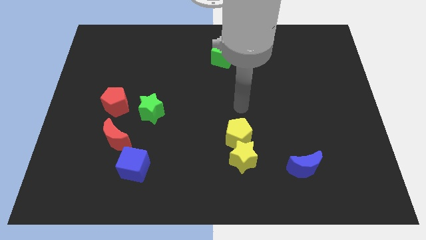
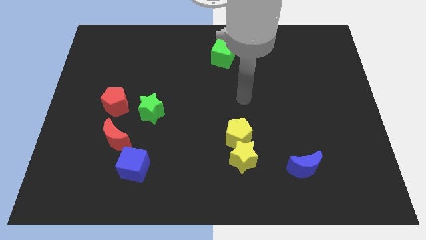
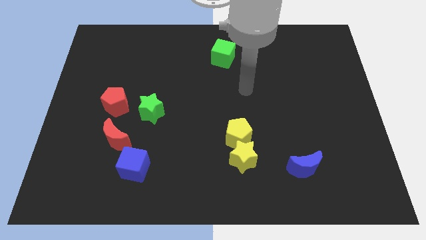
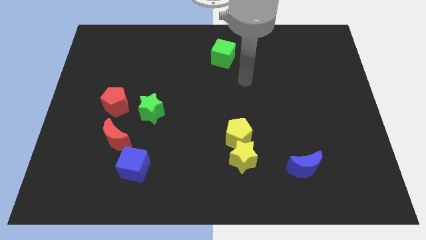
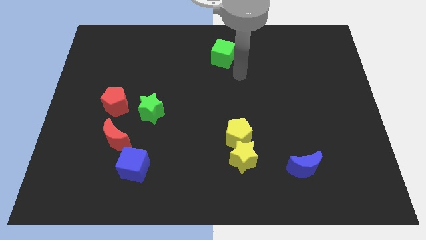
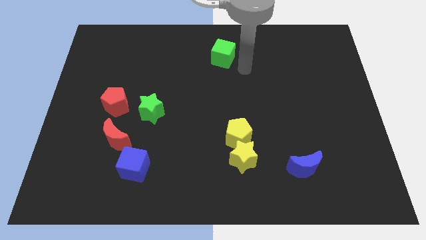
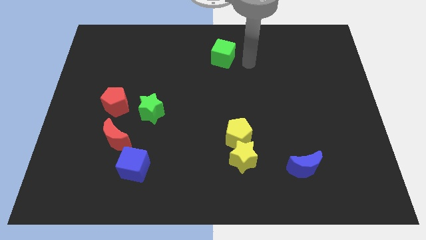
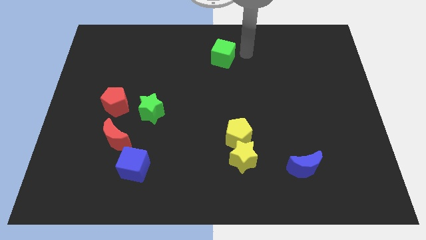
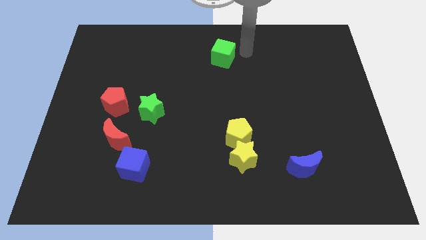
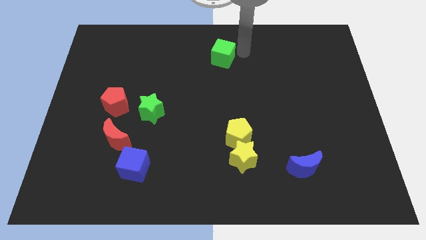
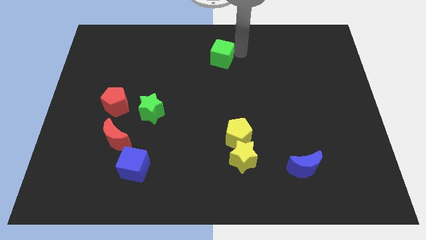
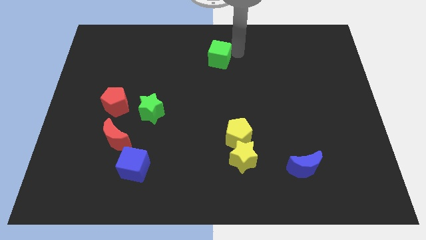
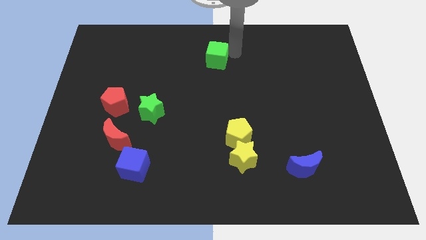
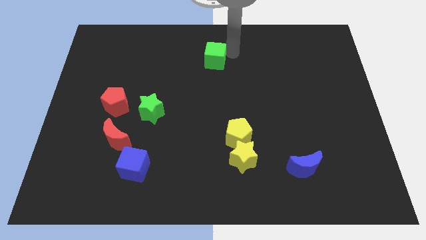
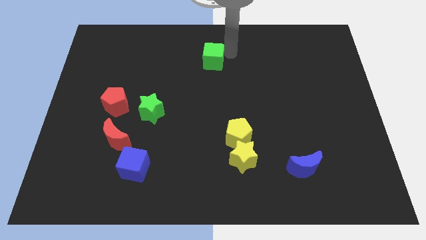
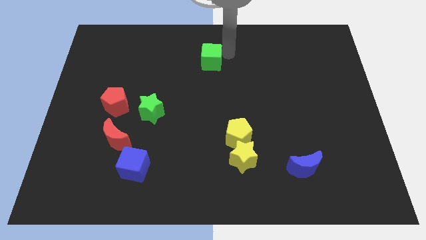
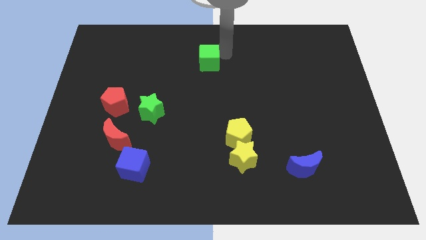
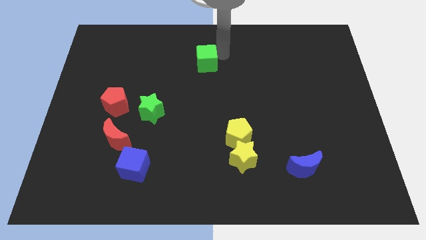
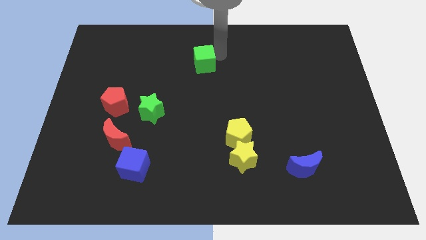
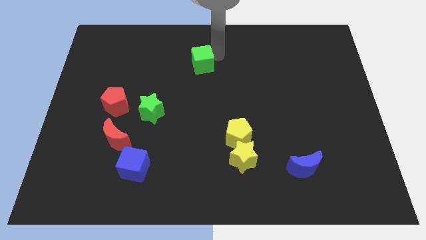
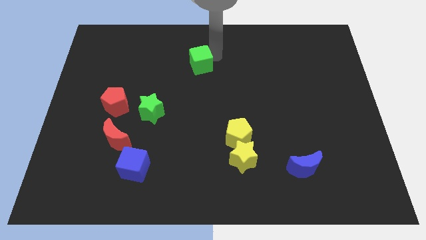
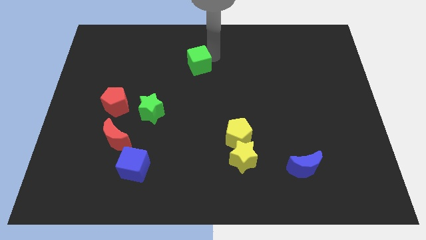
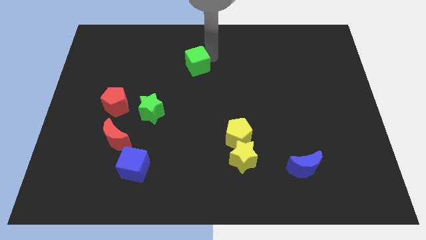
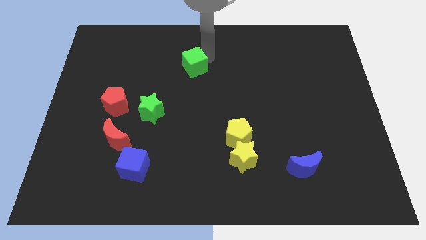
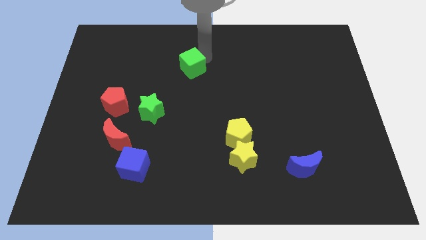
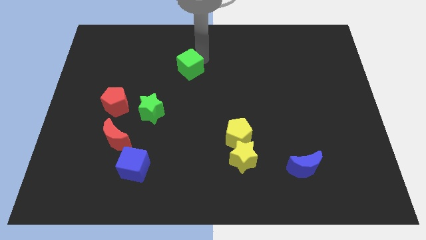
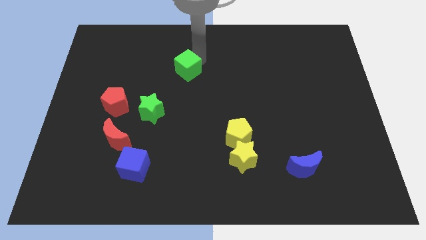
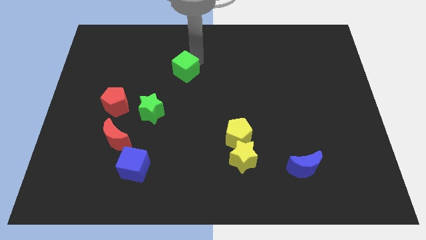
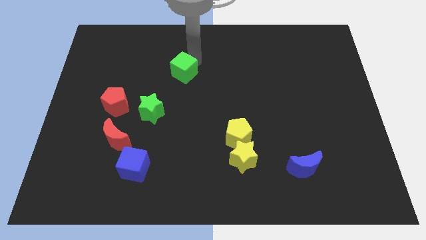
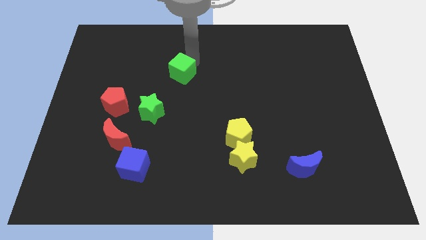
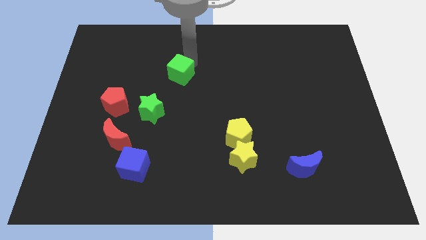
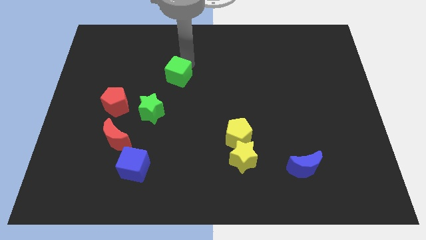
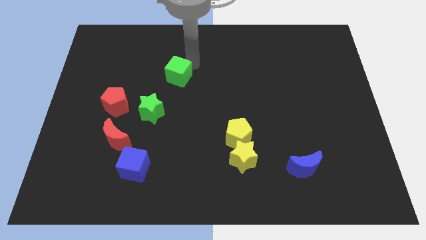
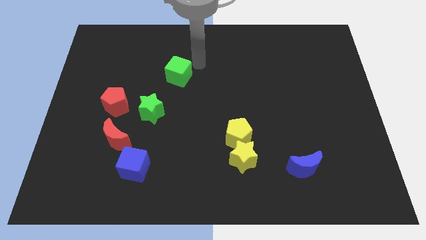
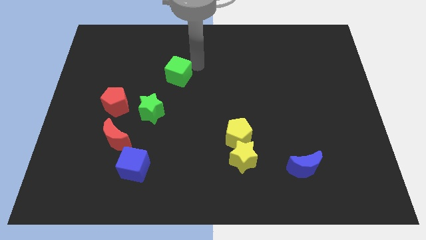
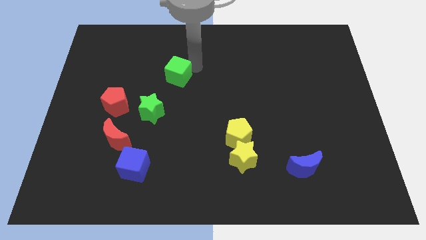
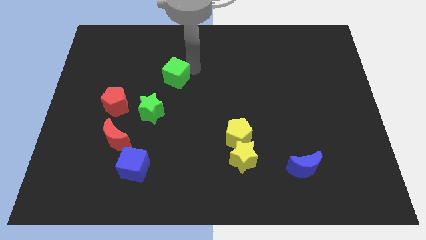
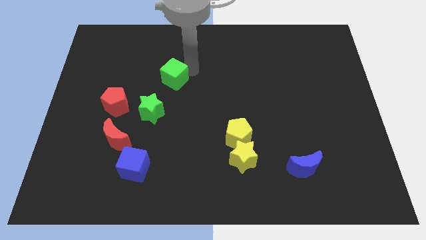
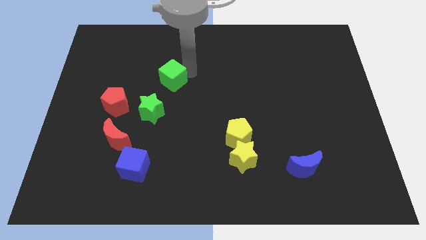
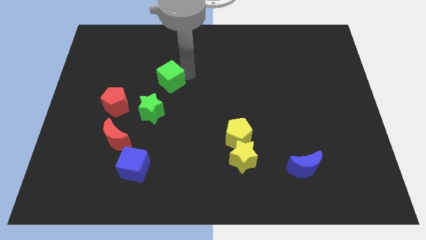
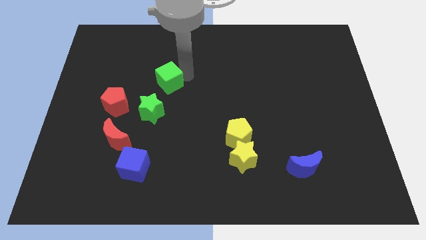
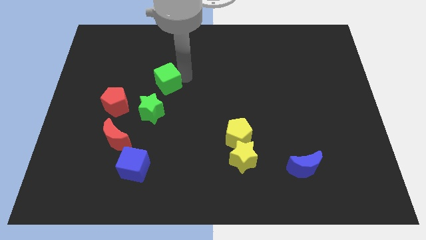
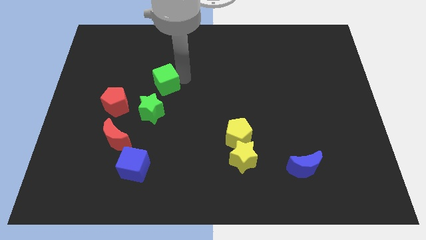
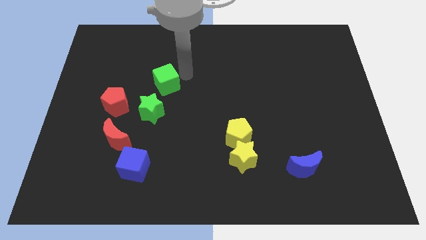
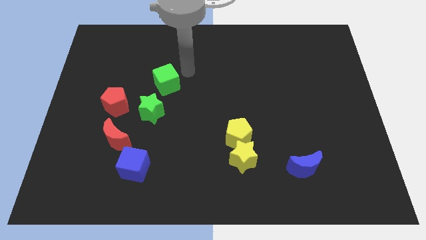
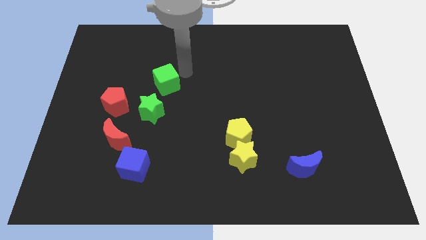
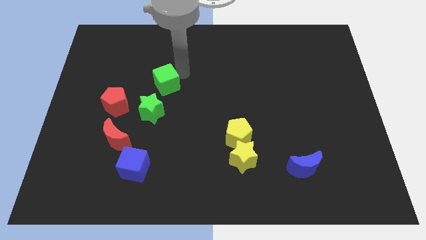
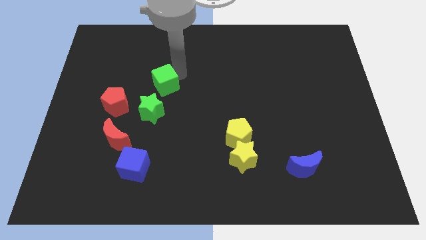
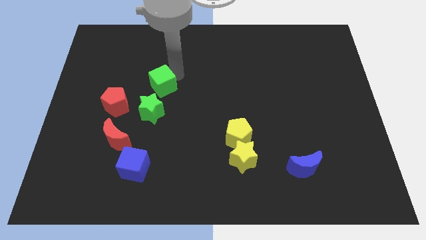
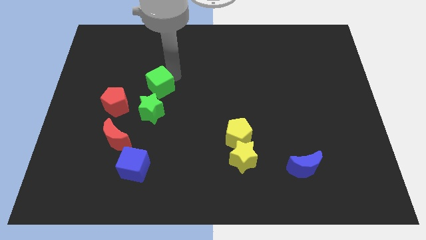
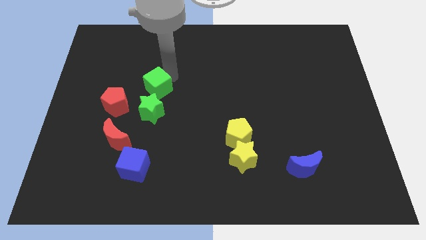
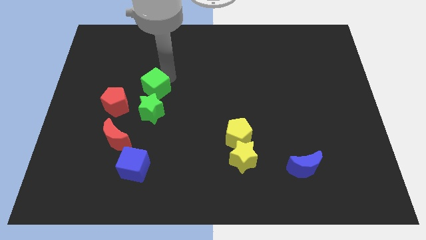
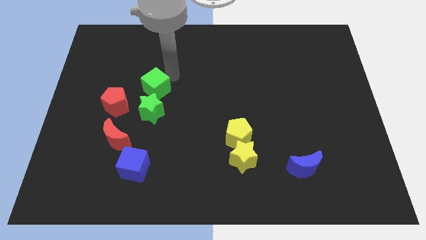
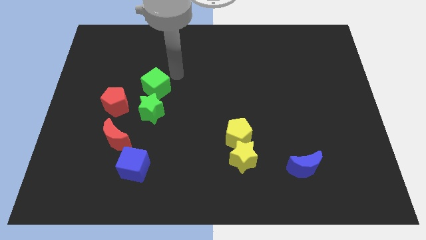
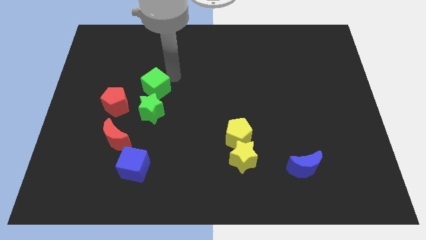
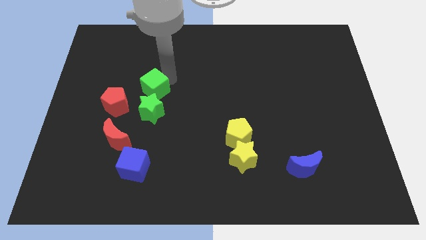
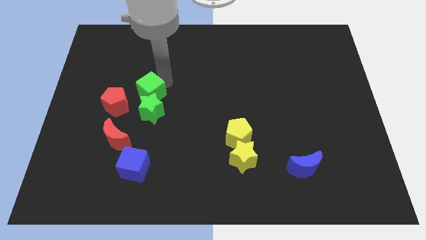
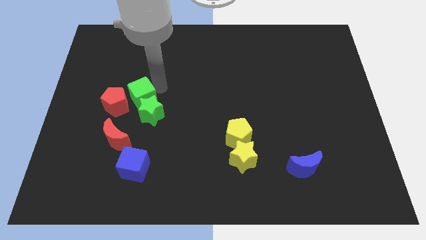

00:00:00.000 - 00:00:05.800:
slide the green cube close to the red pentagon
